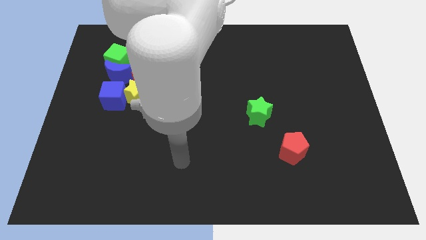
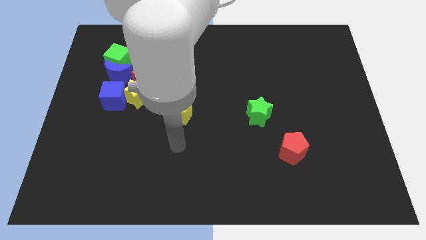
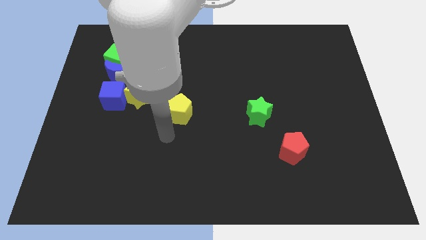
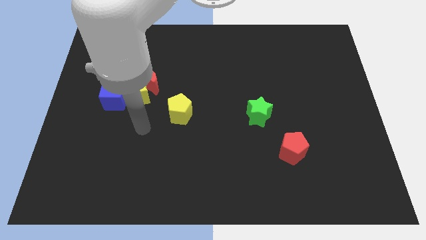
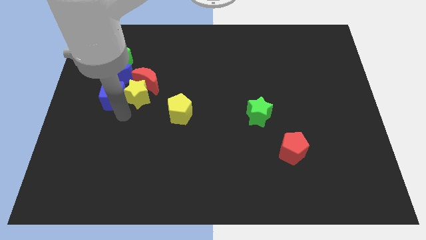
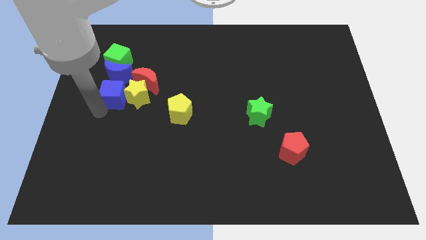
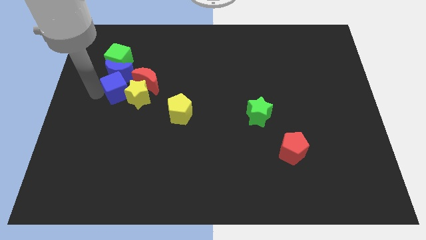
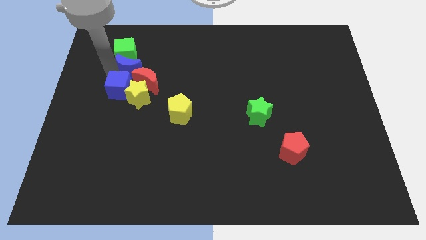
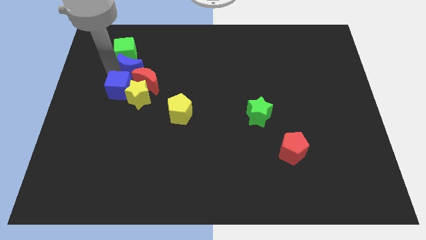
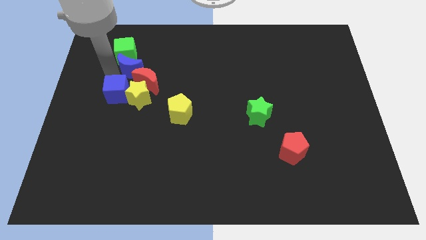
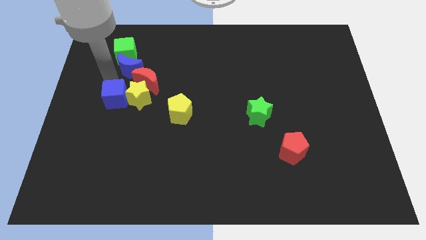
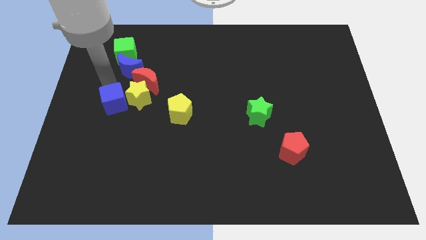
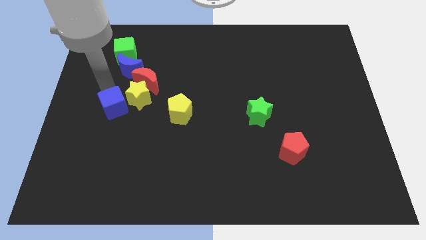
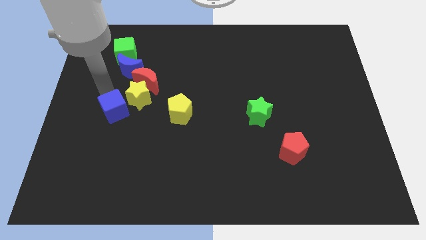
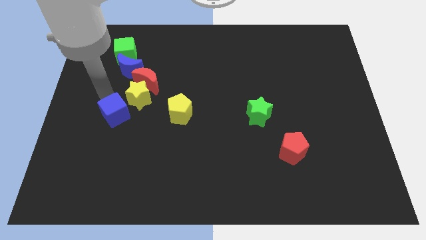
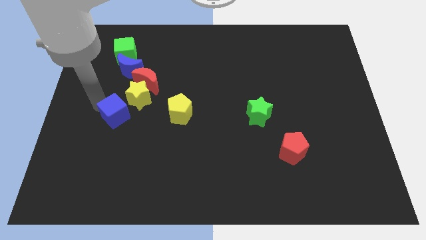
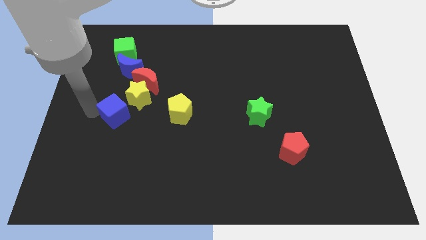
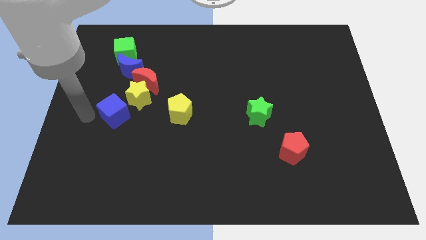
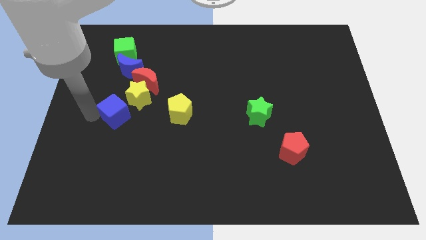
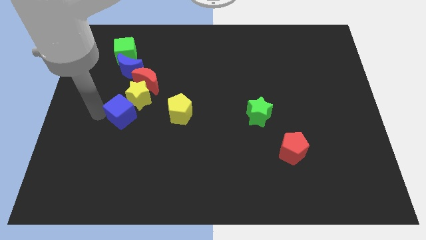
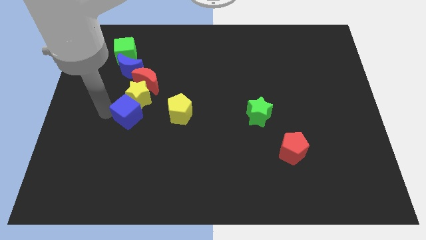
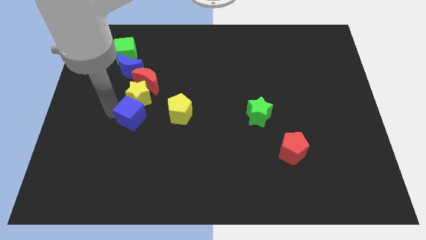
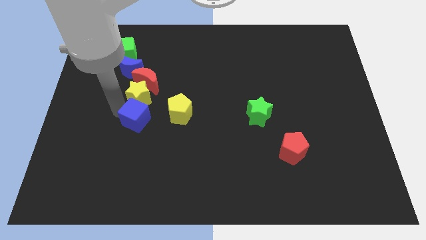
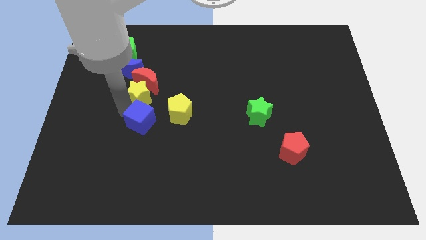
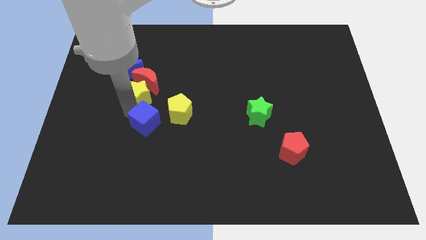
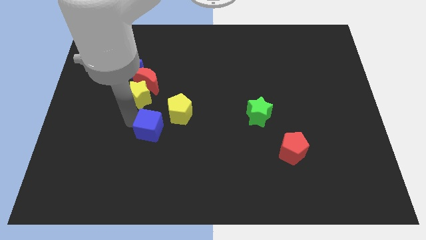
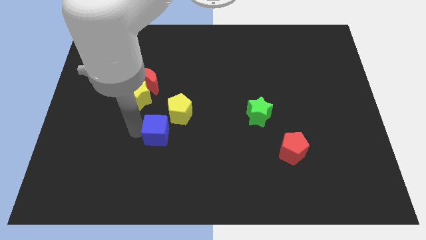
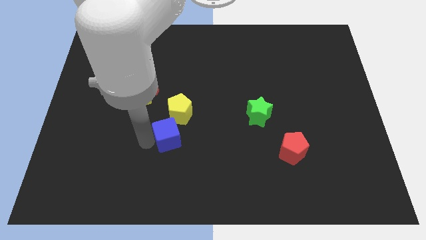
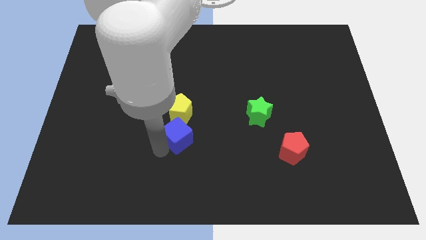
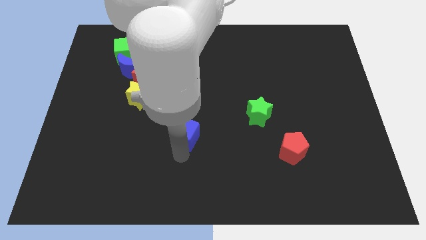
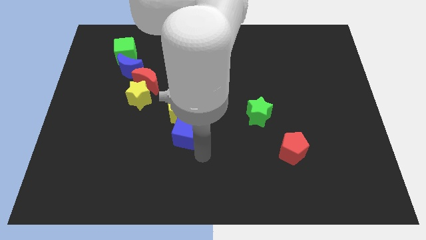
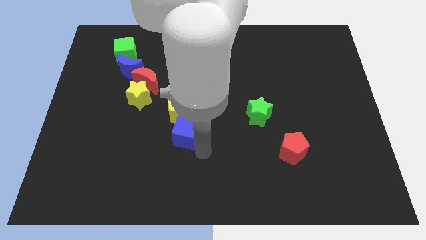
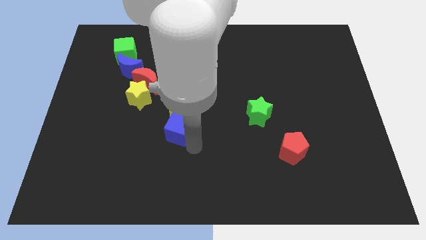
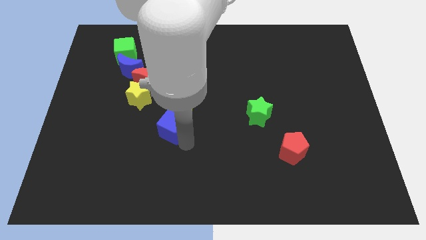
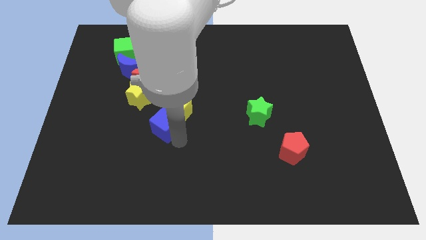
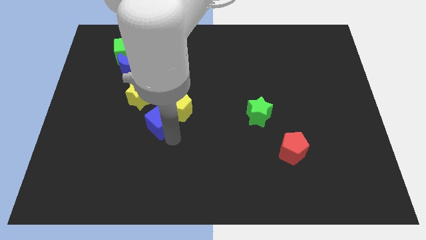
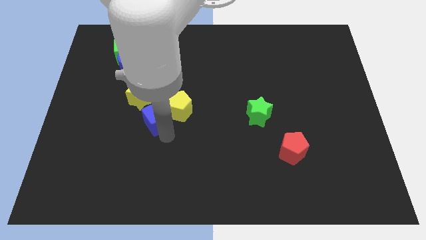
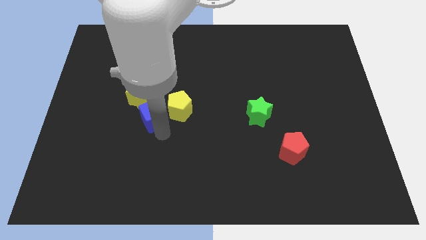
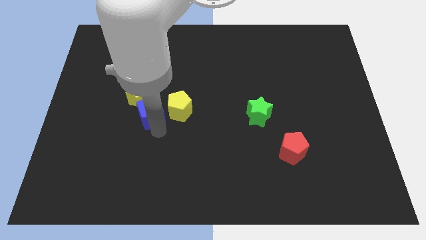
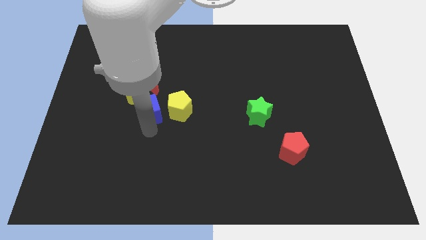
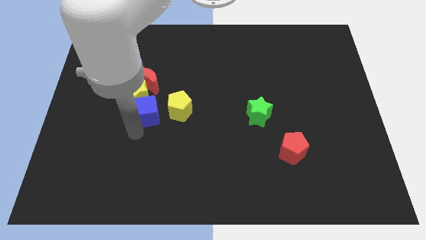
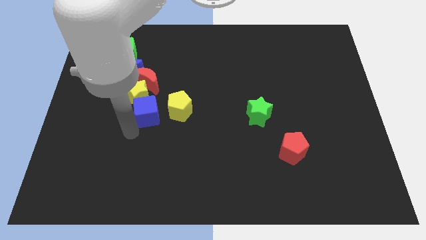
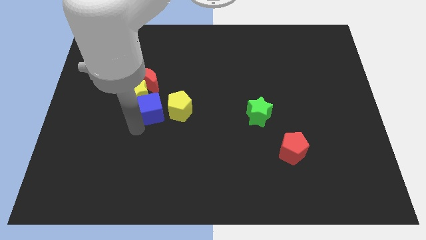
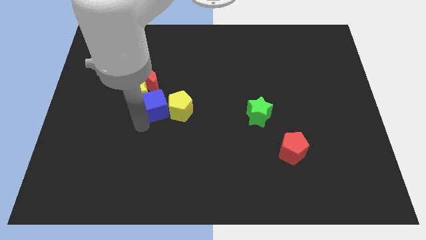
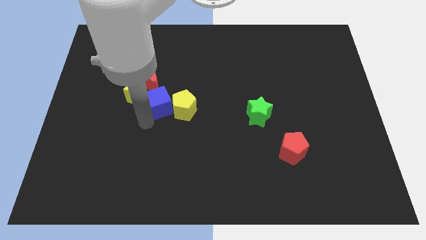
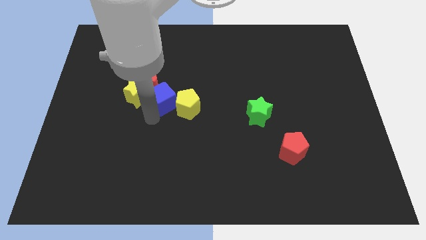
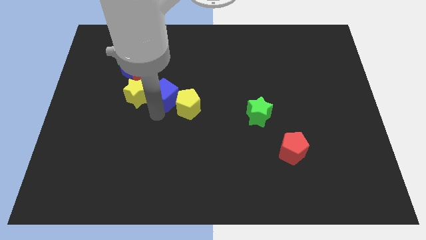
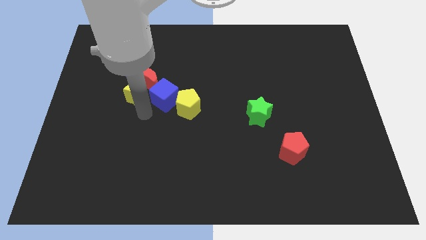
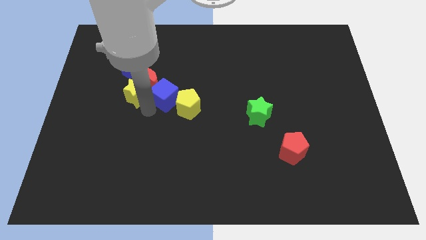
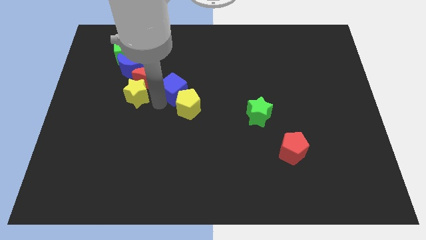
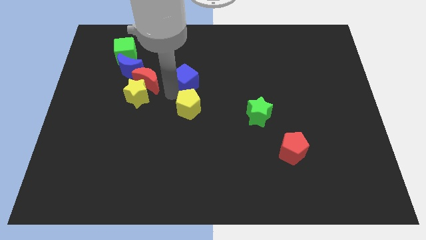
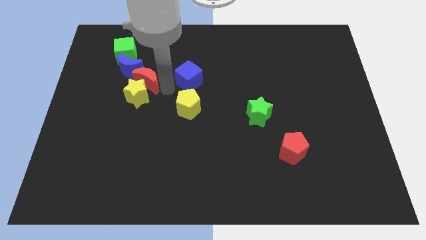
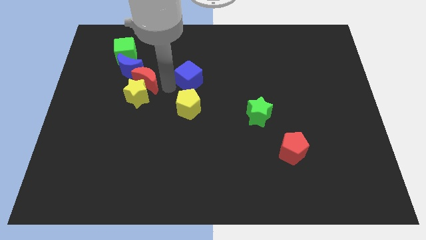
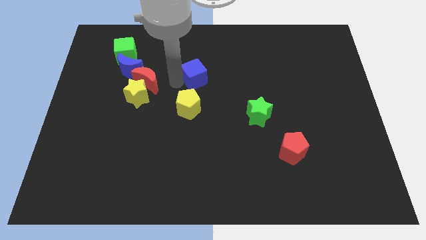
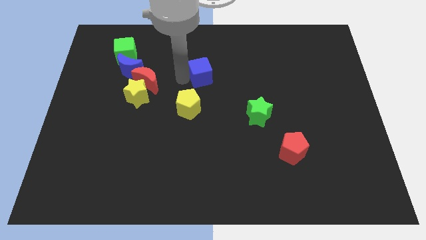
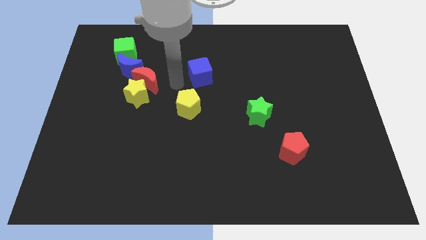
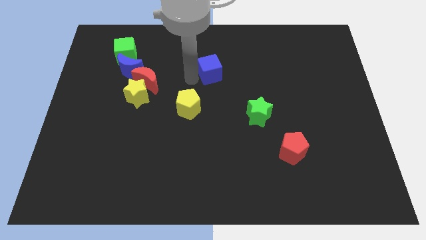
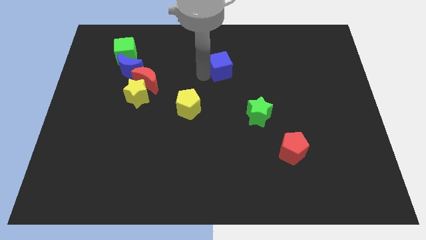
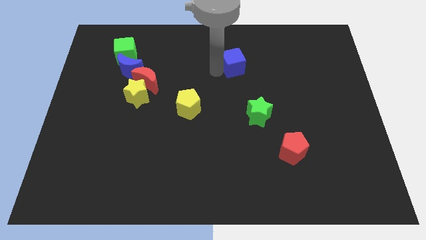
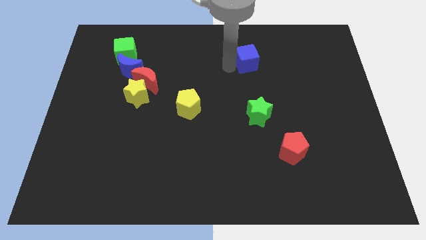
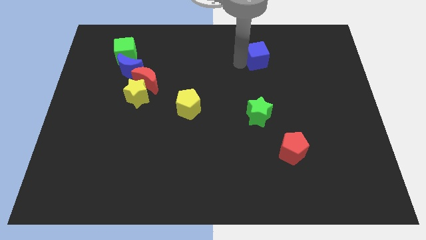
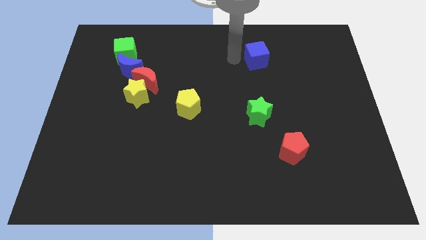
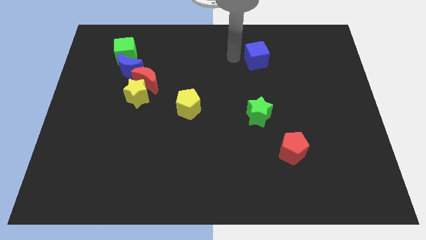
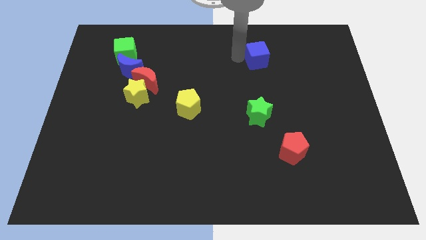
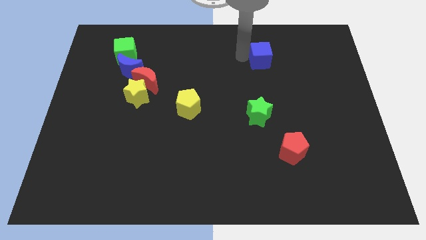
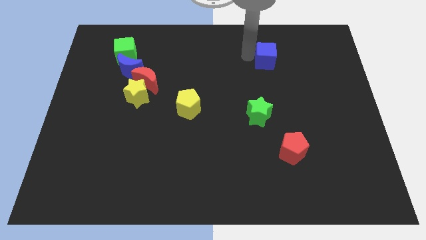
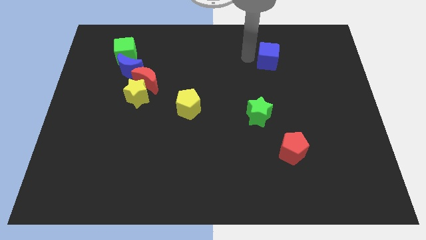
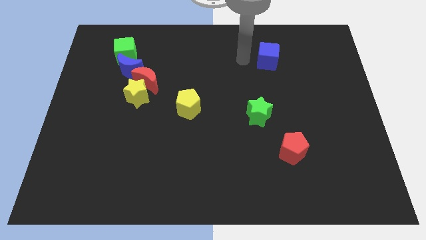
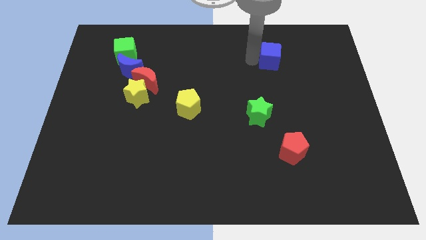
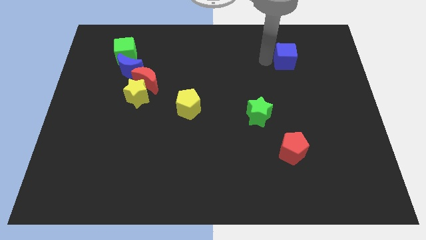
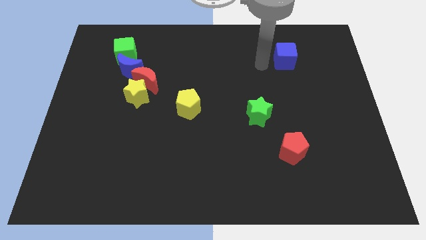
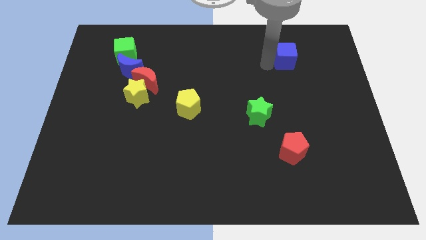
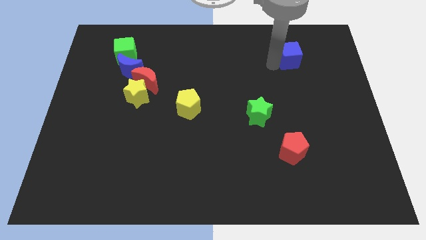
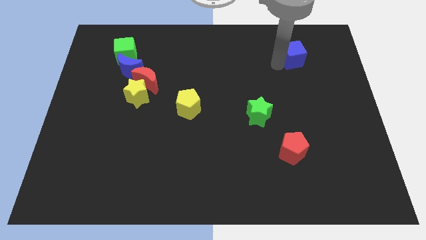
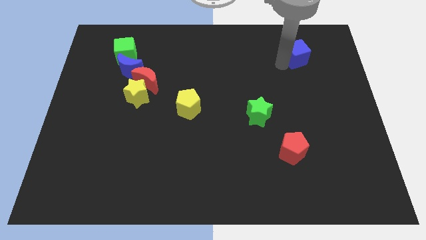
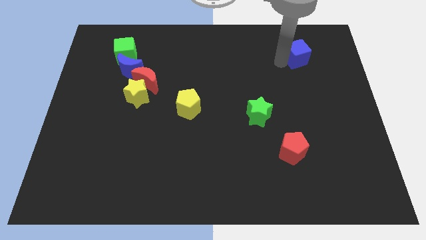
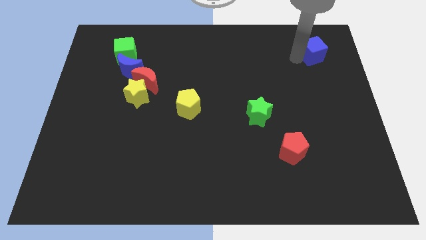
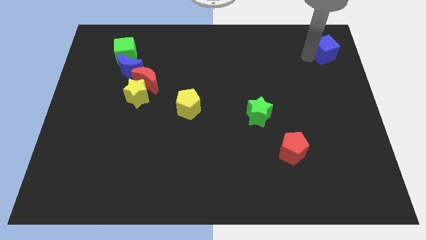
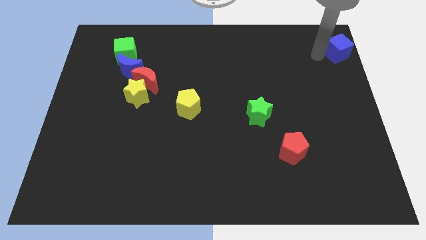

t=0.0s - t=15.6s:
put the blue cube to the upper right corner
